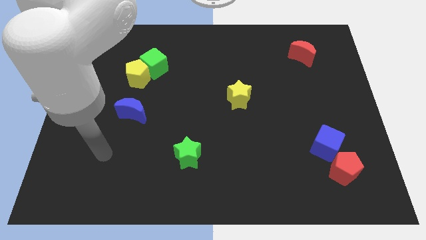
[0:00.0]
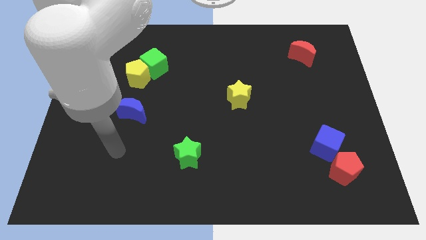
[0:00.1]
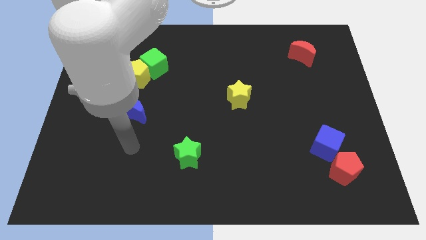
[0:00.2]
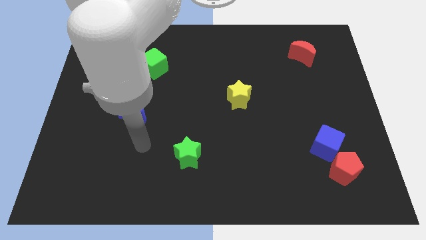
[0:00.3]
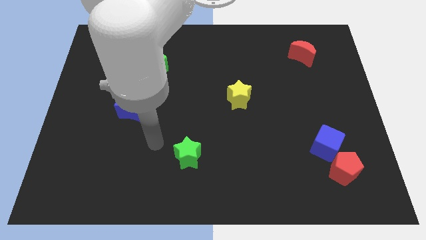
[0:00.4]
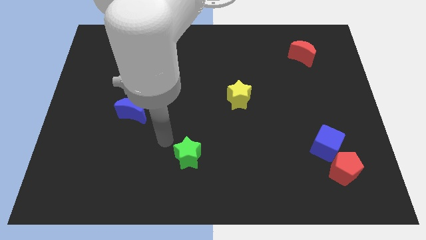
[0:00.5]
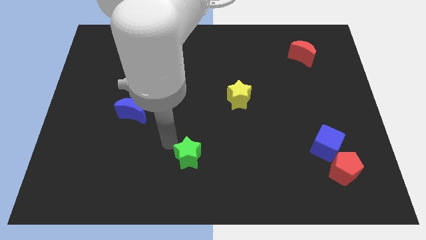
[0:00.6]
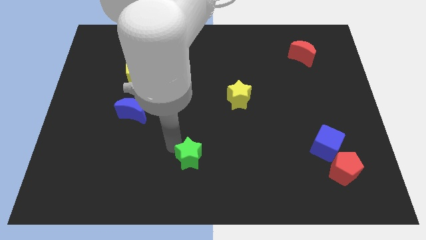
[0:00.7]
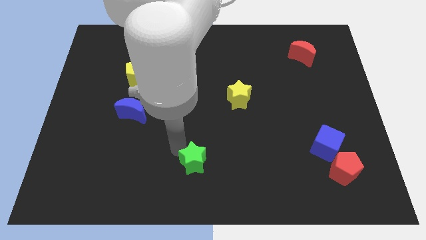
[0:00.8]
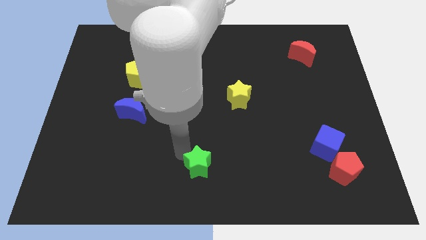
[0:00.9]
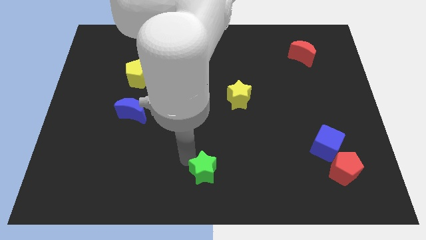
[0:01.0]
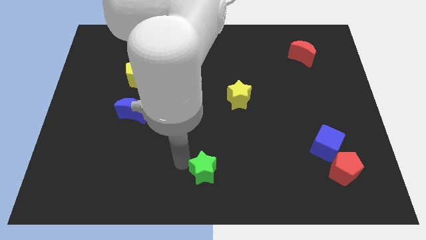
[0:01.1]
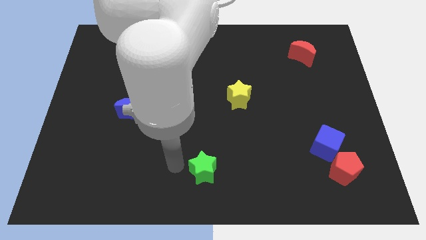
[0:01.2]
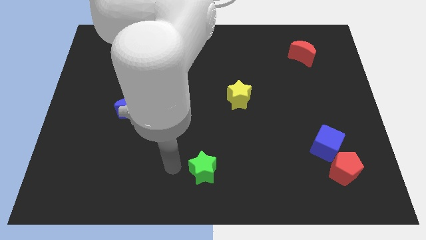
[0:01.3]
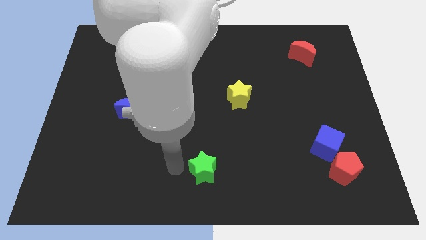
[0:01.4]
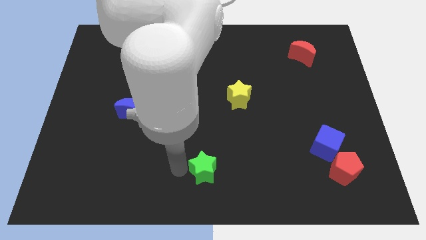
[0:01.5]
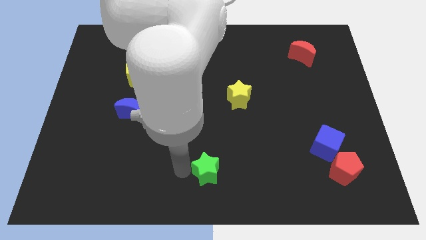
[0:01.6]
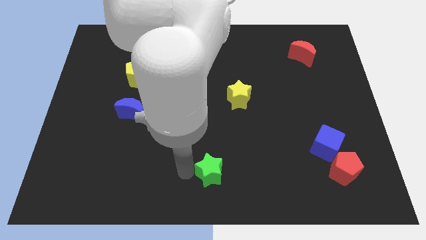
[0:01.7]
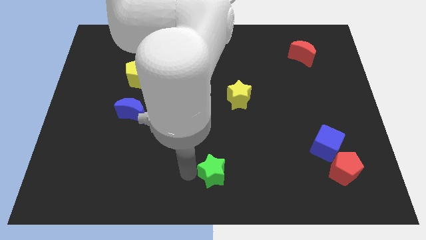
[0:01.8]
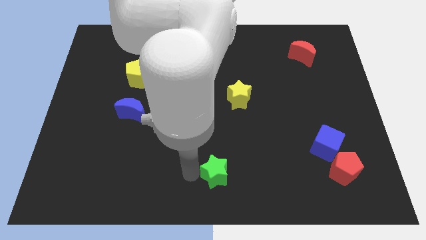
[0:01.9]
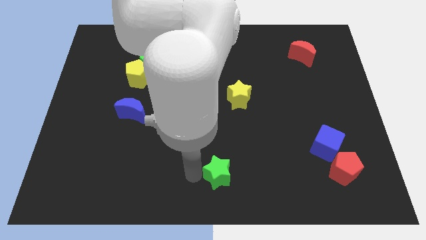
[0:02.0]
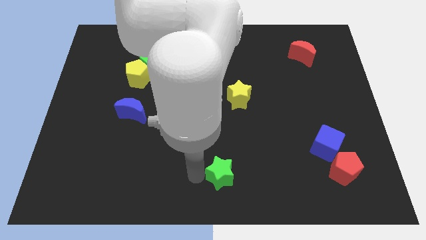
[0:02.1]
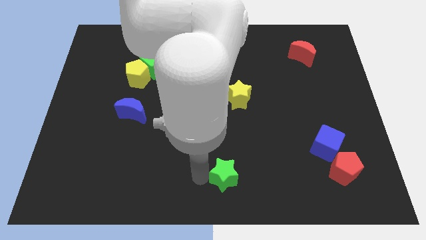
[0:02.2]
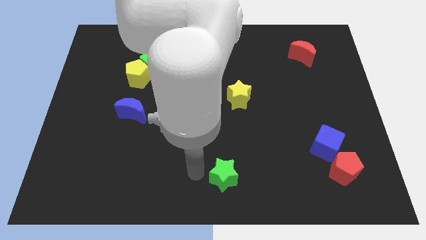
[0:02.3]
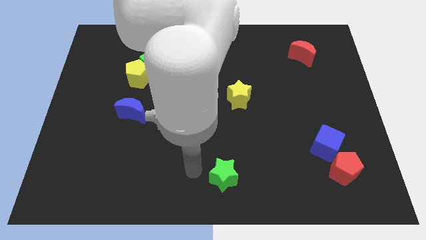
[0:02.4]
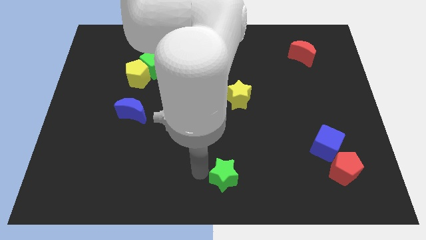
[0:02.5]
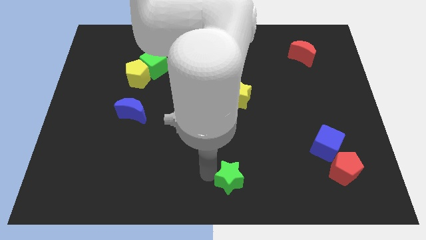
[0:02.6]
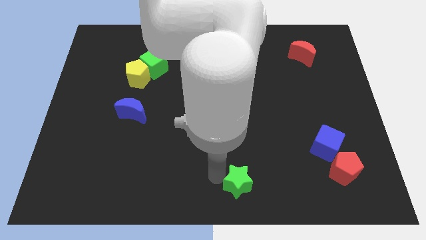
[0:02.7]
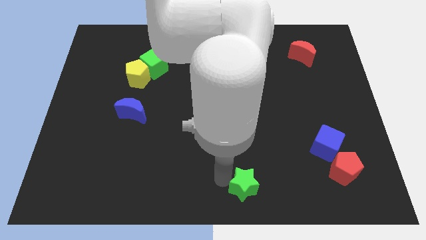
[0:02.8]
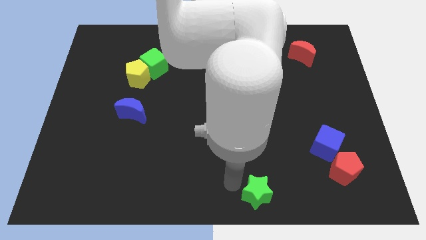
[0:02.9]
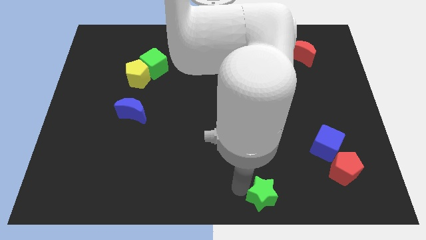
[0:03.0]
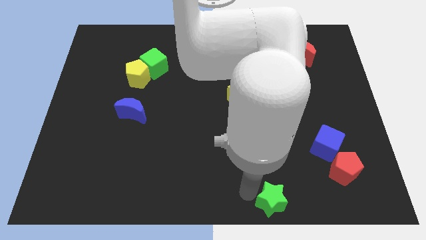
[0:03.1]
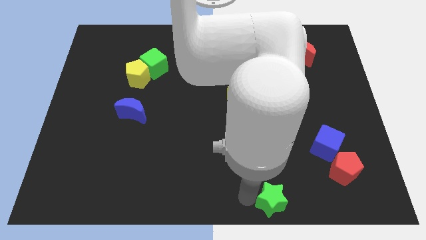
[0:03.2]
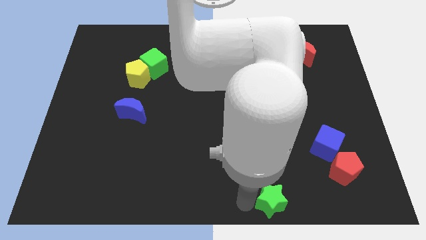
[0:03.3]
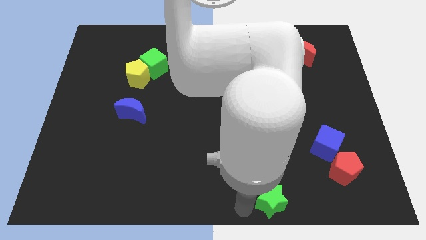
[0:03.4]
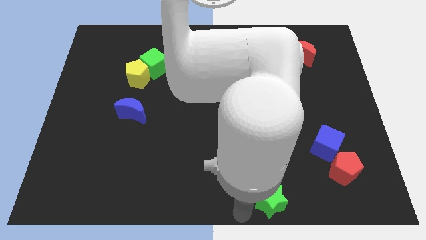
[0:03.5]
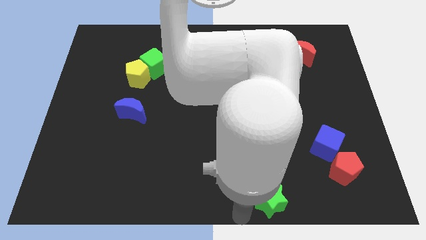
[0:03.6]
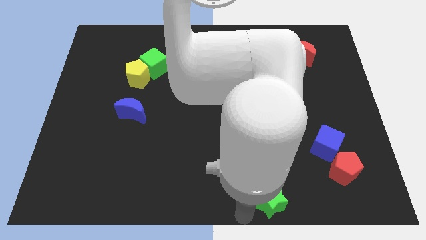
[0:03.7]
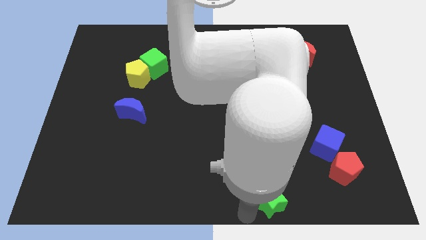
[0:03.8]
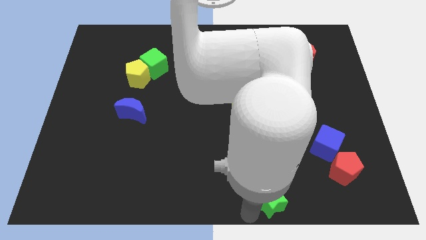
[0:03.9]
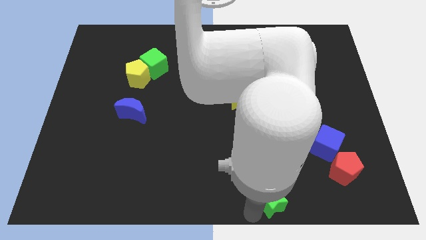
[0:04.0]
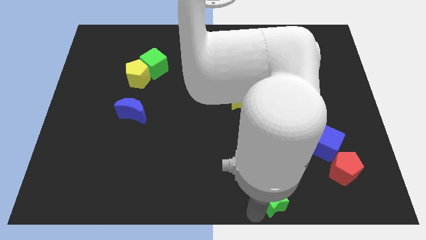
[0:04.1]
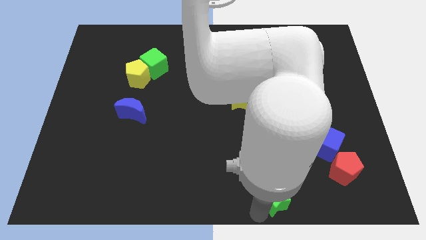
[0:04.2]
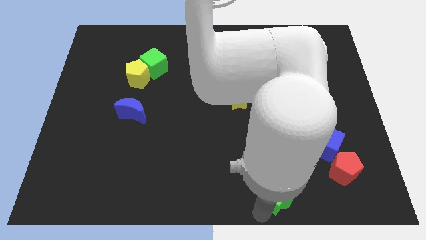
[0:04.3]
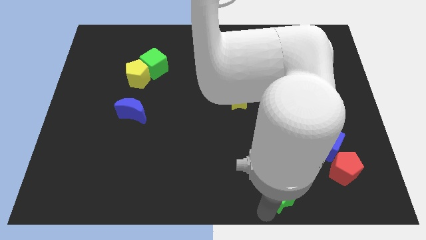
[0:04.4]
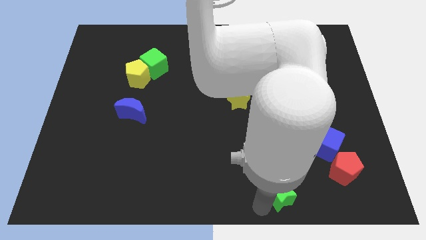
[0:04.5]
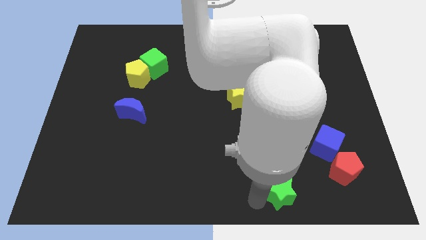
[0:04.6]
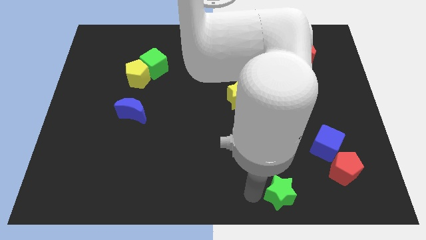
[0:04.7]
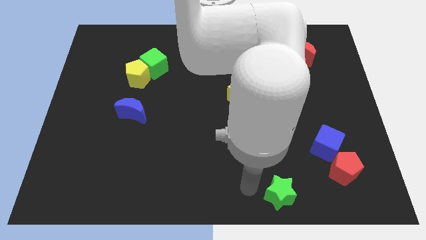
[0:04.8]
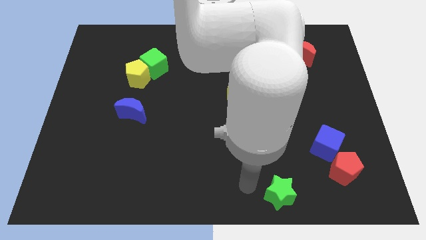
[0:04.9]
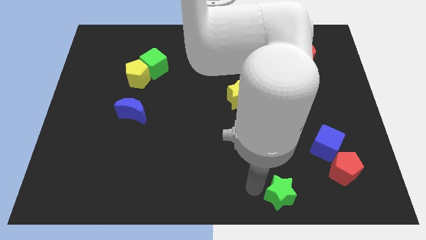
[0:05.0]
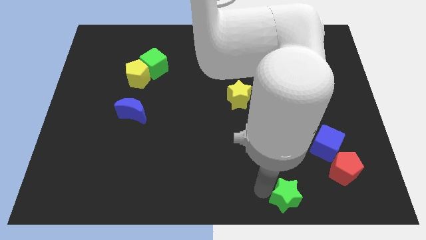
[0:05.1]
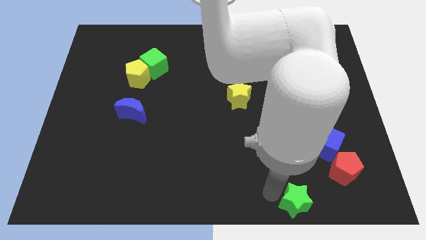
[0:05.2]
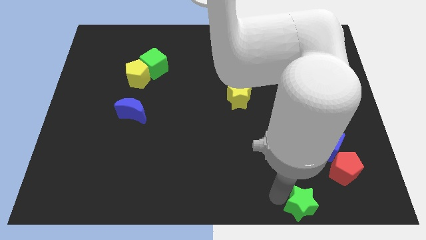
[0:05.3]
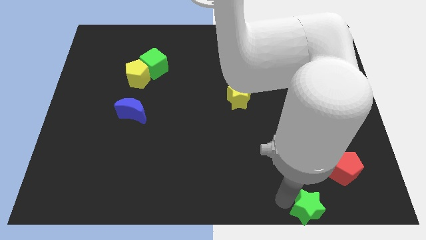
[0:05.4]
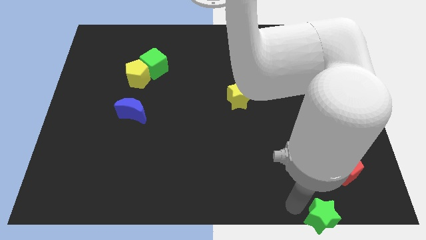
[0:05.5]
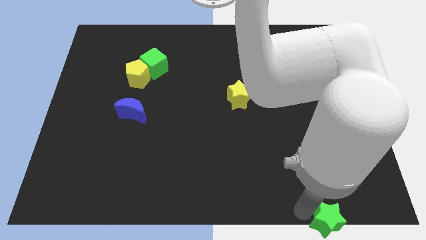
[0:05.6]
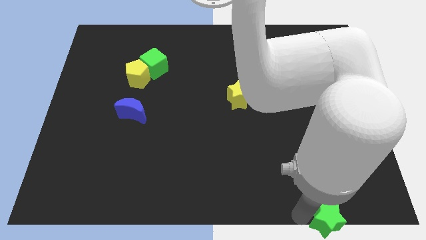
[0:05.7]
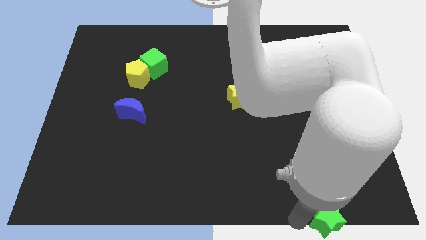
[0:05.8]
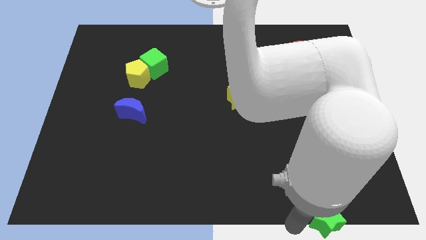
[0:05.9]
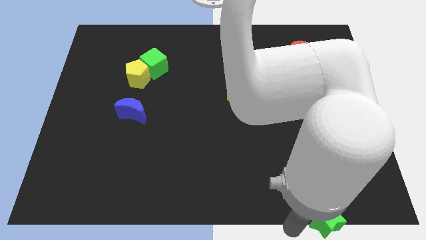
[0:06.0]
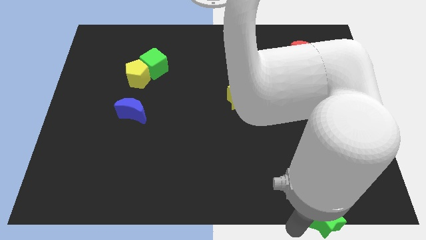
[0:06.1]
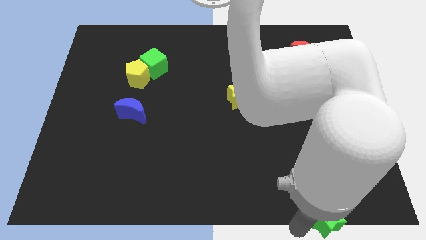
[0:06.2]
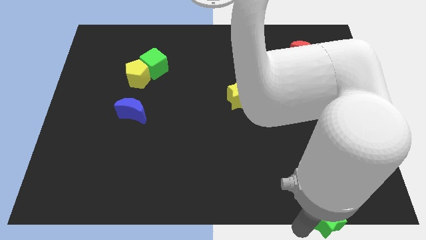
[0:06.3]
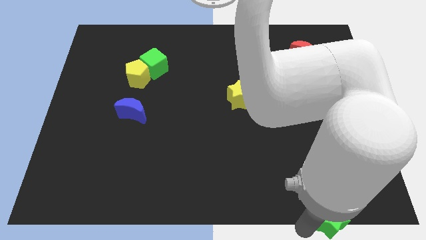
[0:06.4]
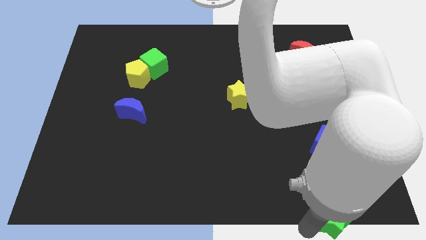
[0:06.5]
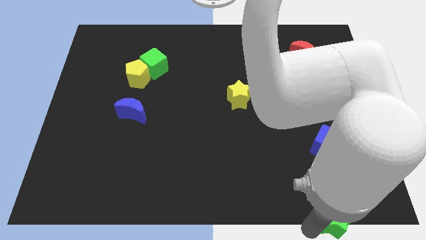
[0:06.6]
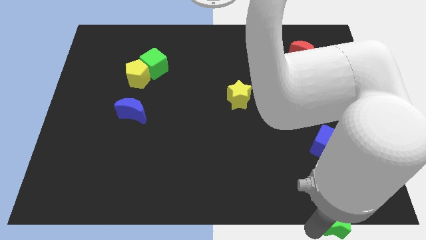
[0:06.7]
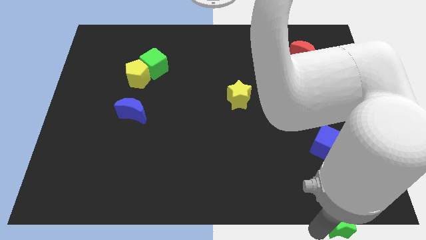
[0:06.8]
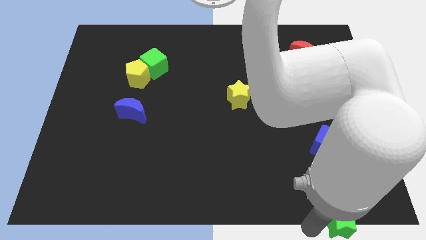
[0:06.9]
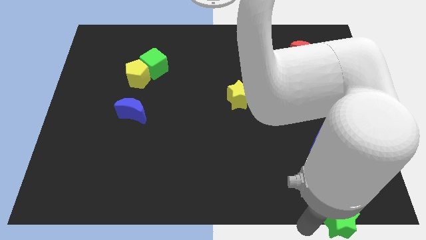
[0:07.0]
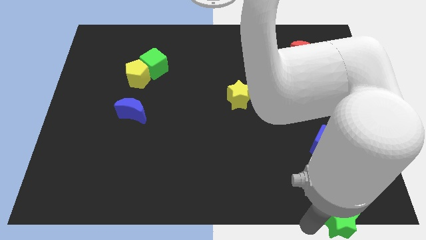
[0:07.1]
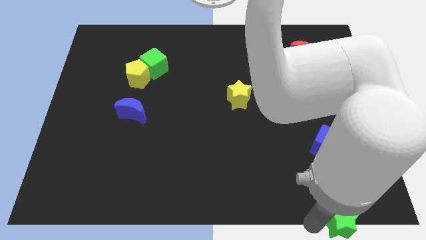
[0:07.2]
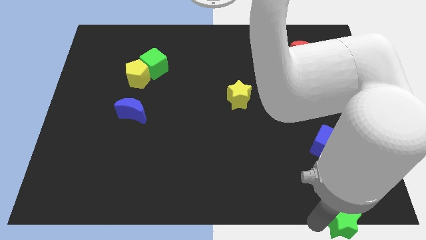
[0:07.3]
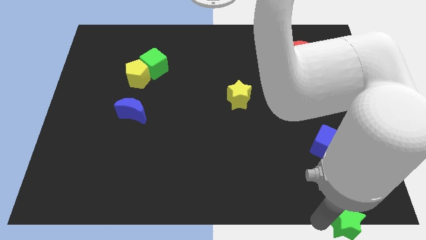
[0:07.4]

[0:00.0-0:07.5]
slide the green star to the bottom right
